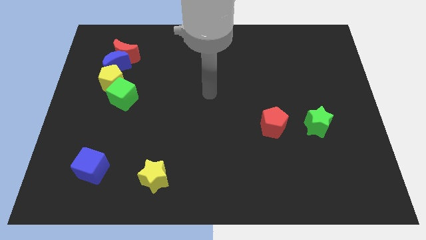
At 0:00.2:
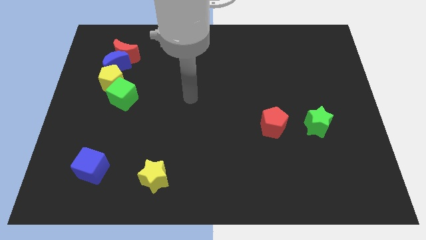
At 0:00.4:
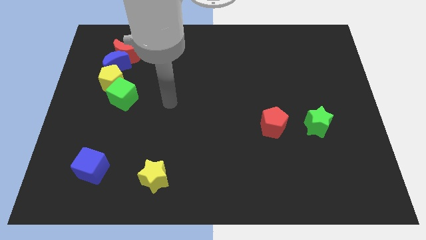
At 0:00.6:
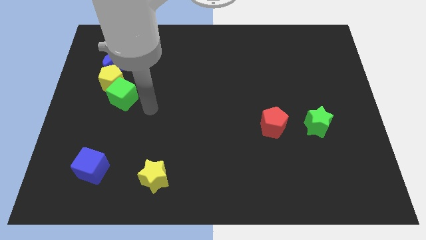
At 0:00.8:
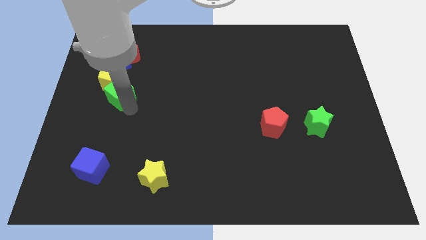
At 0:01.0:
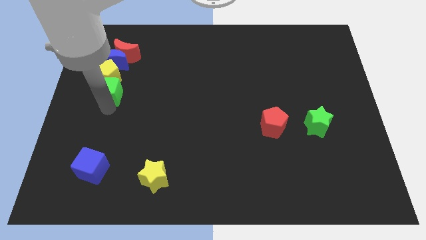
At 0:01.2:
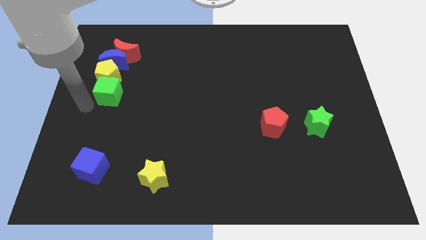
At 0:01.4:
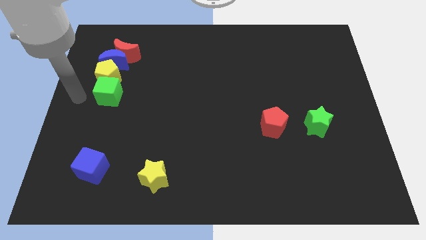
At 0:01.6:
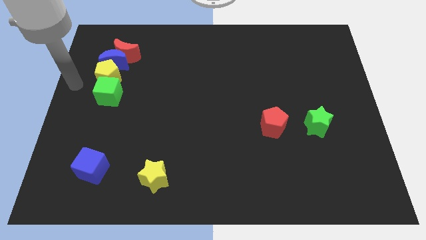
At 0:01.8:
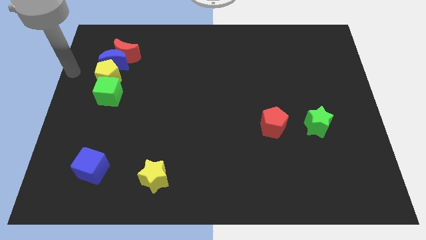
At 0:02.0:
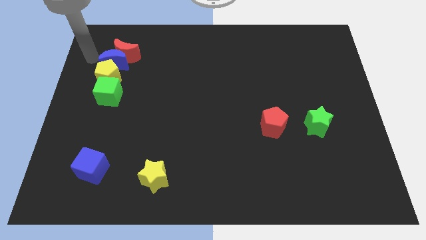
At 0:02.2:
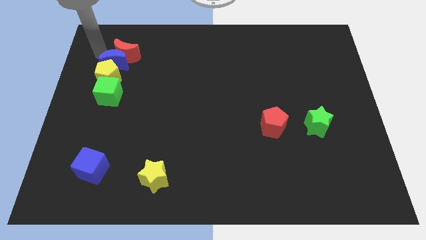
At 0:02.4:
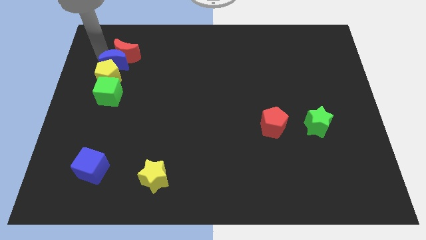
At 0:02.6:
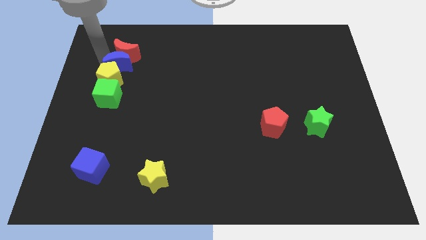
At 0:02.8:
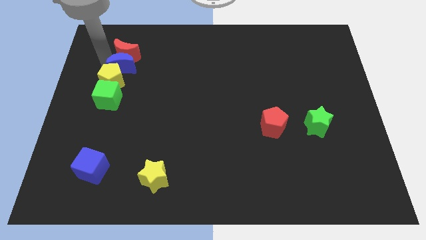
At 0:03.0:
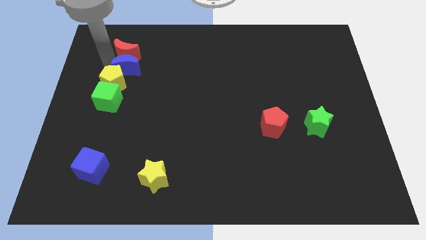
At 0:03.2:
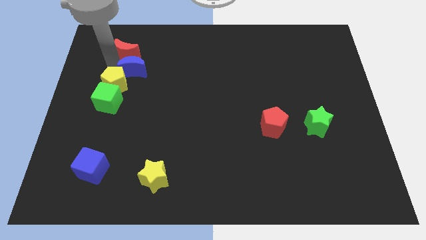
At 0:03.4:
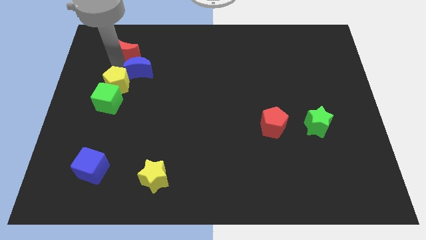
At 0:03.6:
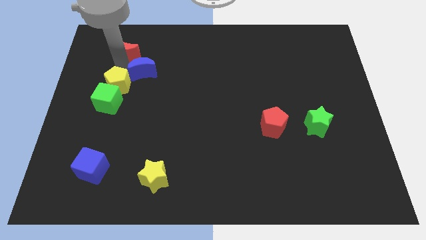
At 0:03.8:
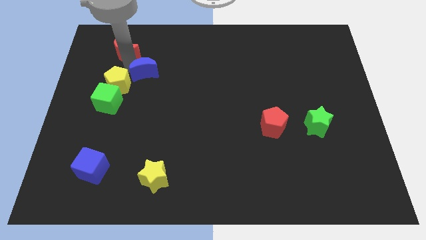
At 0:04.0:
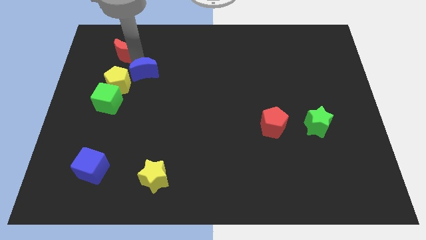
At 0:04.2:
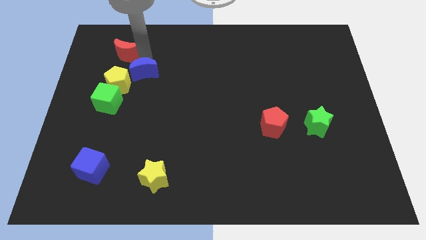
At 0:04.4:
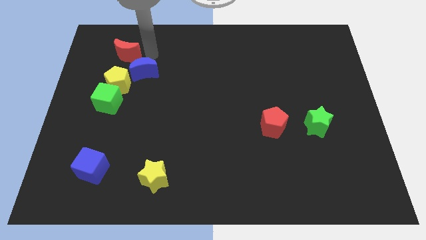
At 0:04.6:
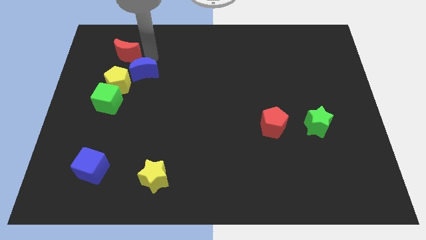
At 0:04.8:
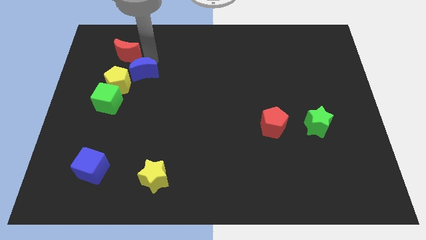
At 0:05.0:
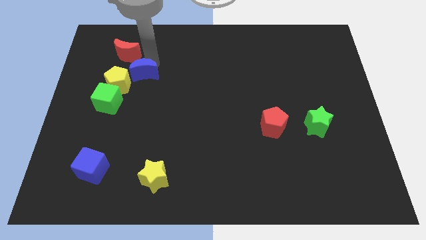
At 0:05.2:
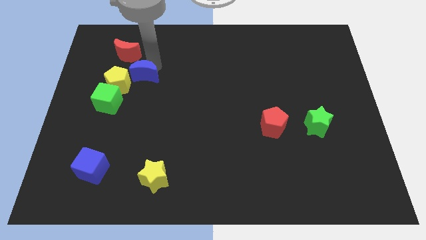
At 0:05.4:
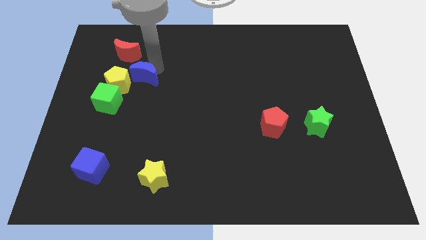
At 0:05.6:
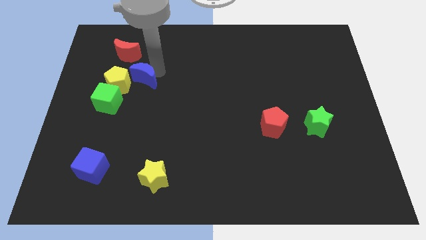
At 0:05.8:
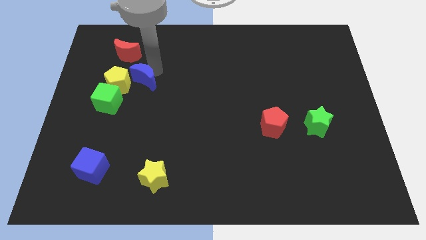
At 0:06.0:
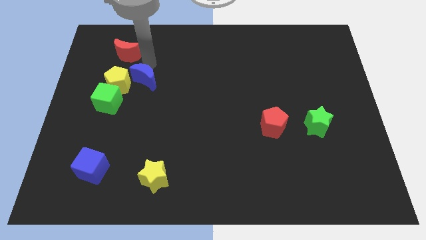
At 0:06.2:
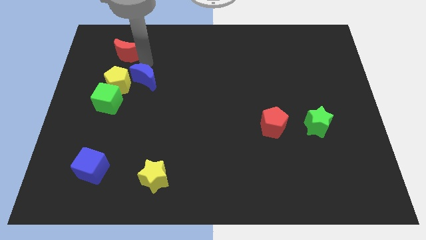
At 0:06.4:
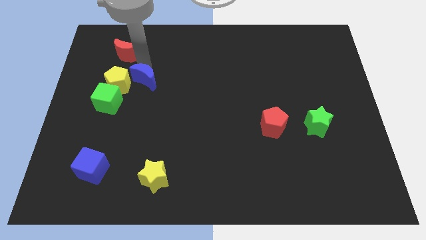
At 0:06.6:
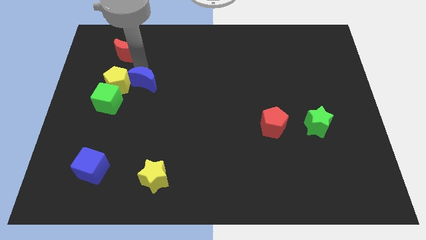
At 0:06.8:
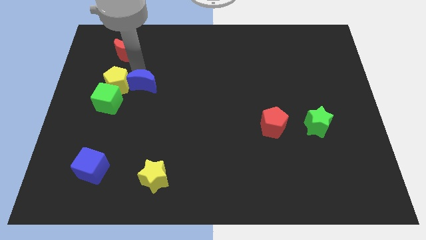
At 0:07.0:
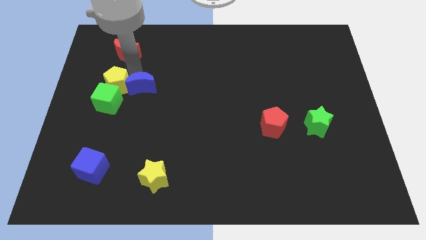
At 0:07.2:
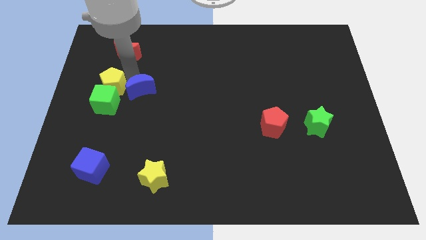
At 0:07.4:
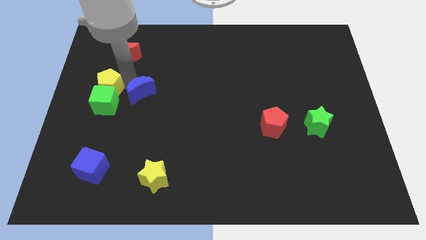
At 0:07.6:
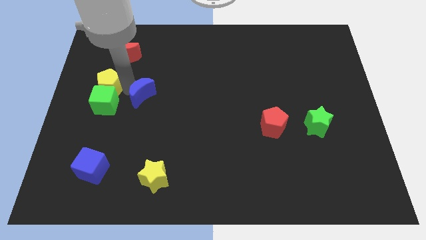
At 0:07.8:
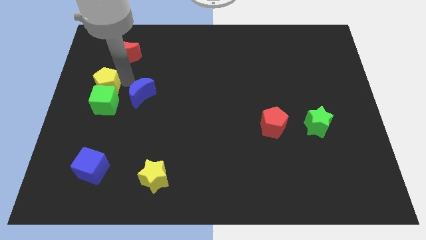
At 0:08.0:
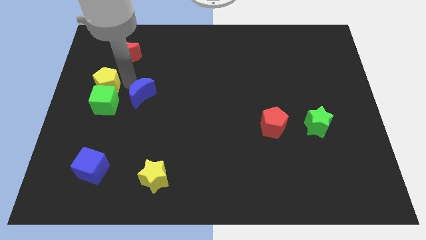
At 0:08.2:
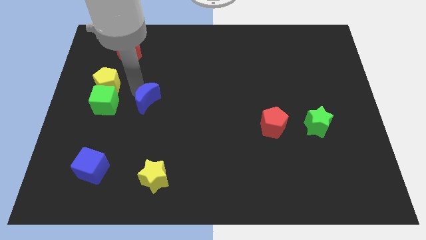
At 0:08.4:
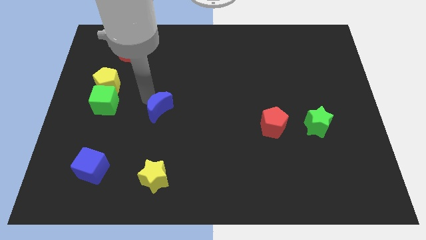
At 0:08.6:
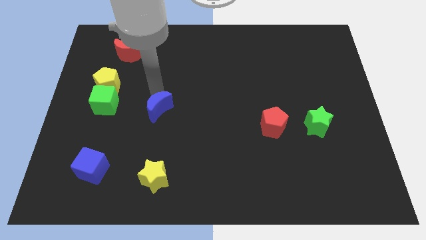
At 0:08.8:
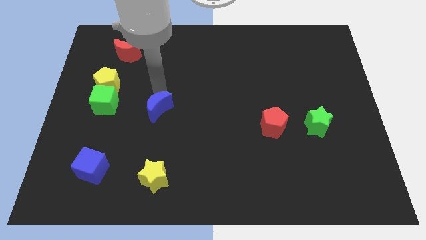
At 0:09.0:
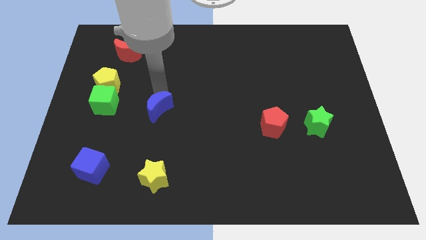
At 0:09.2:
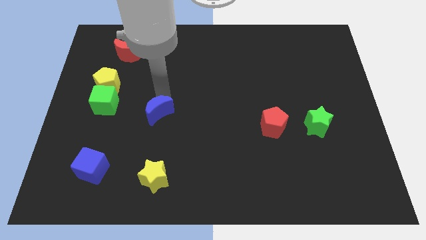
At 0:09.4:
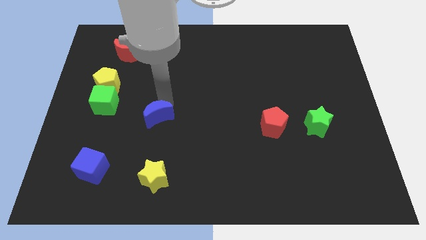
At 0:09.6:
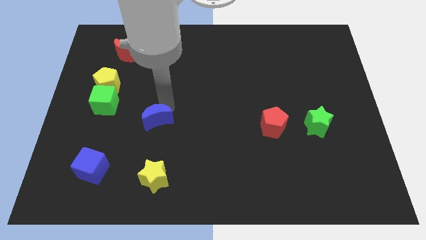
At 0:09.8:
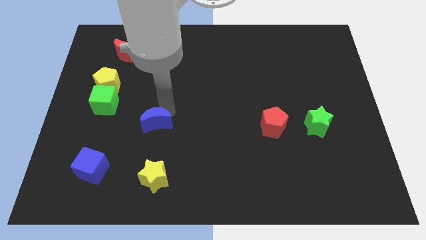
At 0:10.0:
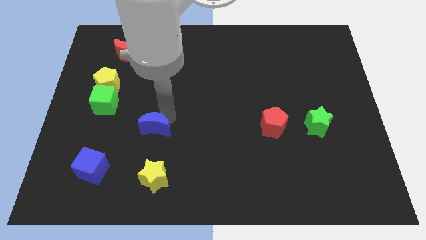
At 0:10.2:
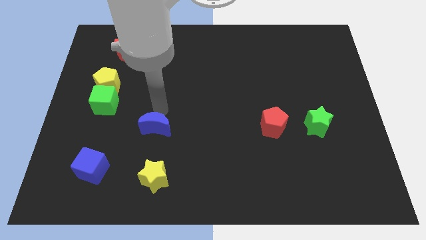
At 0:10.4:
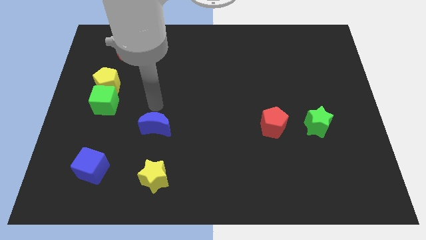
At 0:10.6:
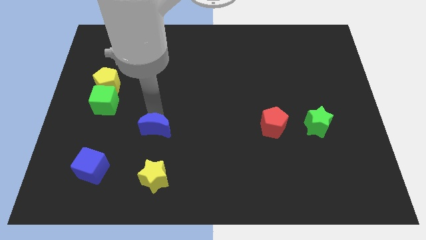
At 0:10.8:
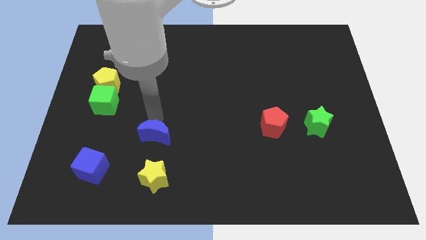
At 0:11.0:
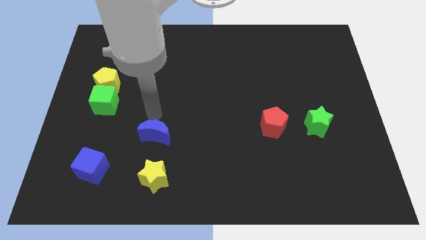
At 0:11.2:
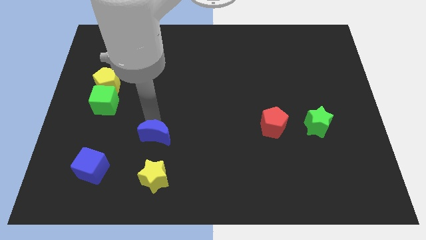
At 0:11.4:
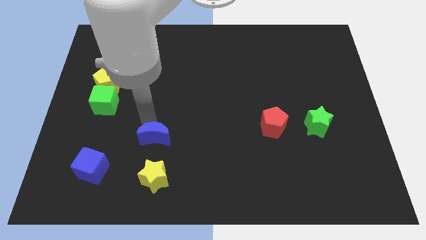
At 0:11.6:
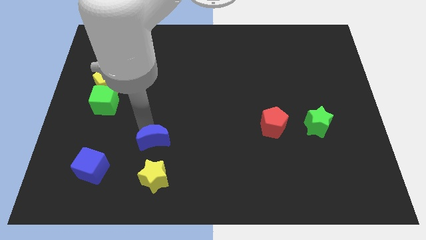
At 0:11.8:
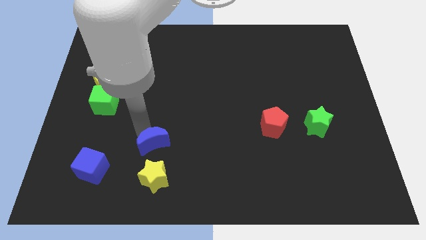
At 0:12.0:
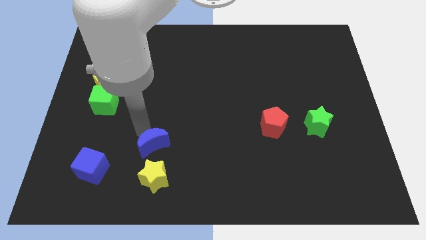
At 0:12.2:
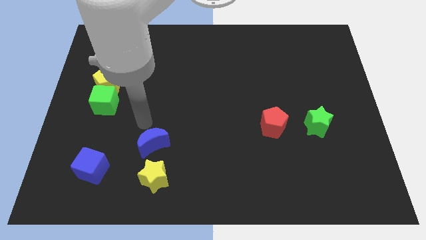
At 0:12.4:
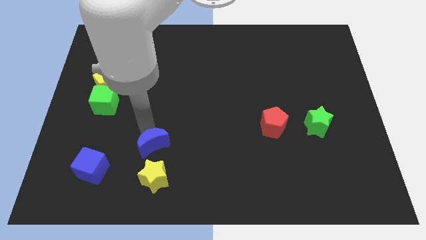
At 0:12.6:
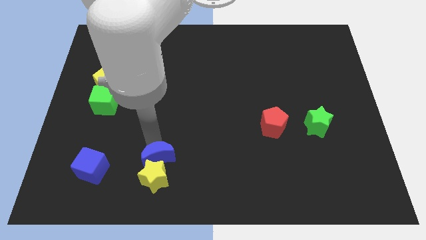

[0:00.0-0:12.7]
push the blue moon to the yellow star
